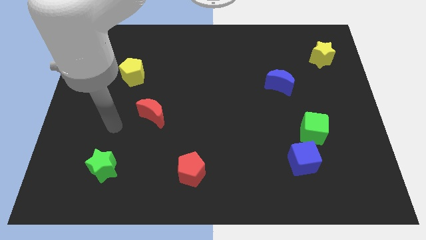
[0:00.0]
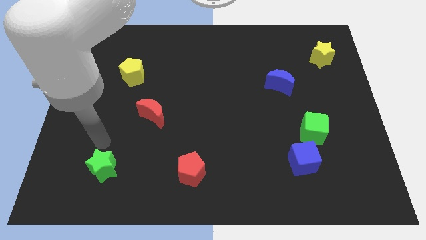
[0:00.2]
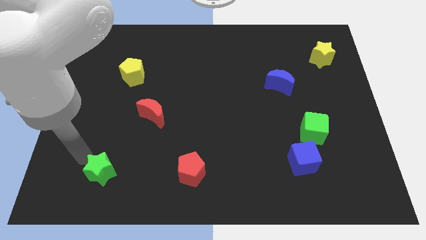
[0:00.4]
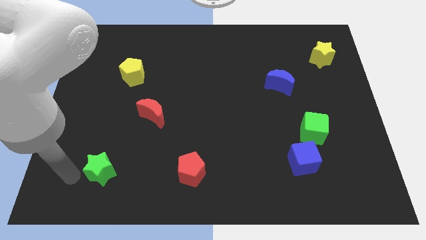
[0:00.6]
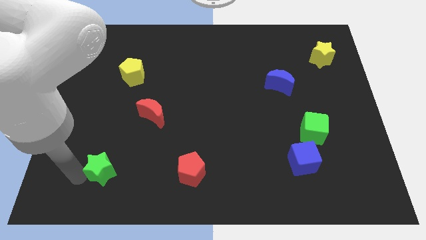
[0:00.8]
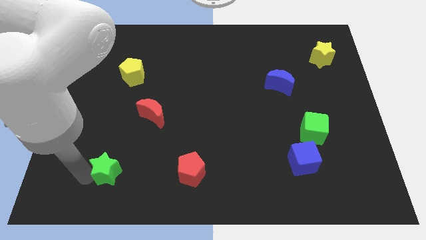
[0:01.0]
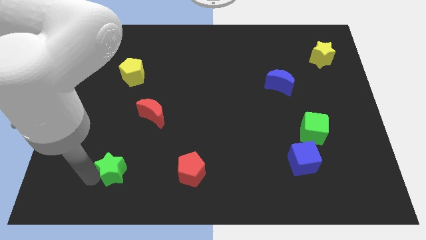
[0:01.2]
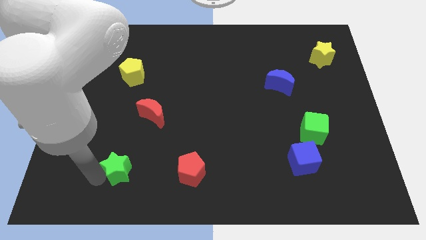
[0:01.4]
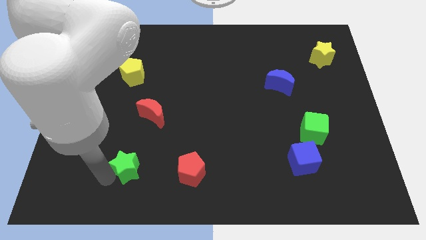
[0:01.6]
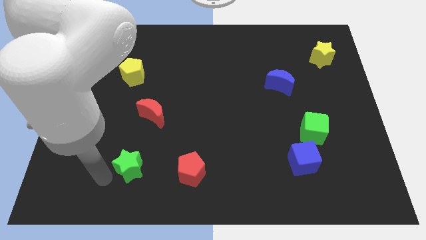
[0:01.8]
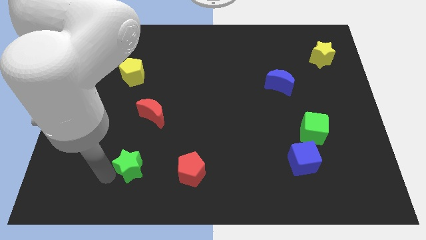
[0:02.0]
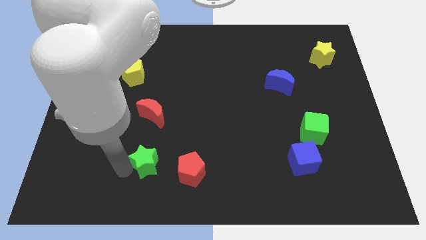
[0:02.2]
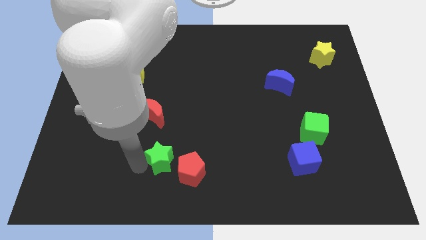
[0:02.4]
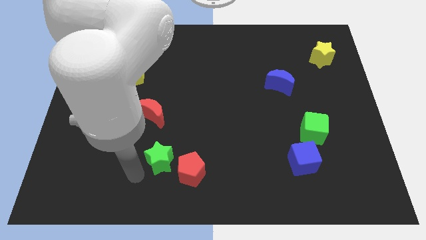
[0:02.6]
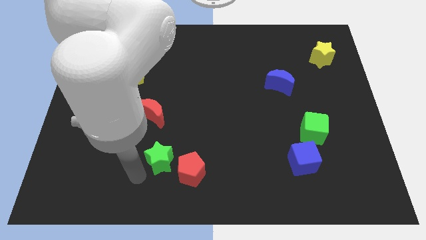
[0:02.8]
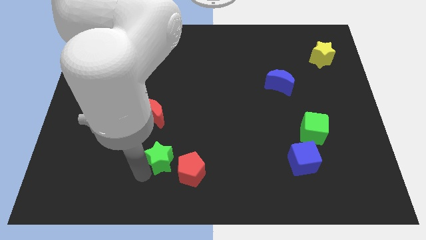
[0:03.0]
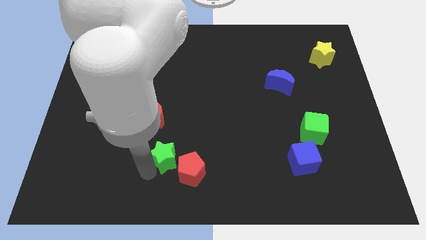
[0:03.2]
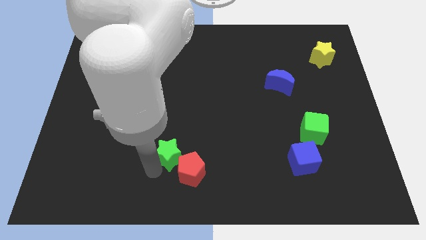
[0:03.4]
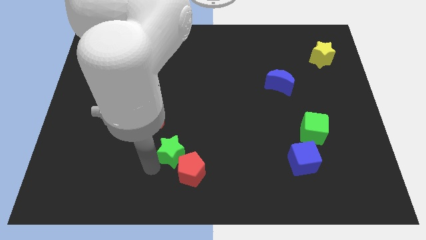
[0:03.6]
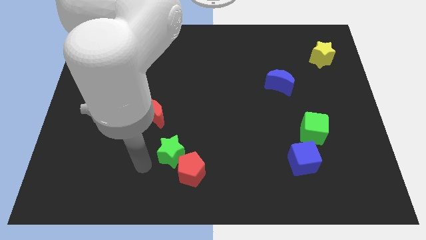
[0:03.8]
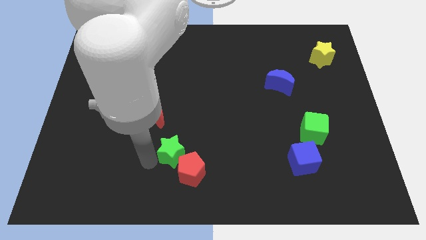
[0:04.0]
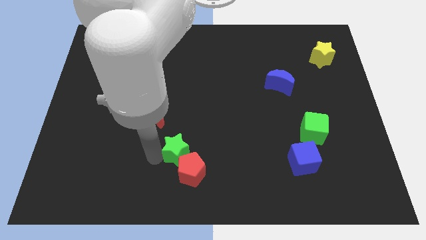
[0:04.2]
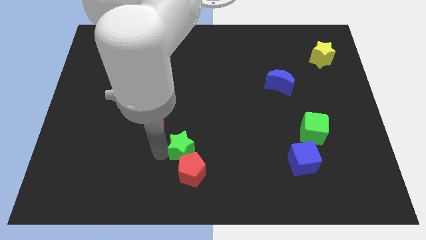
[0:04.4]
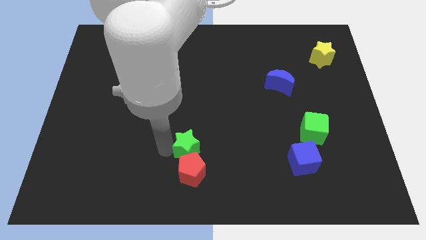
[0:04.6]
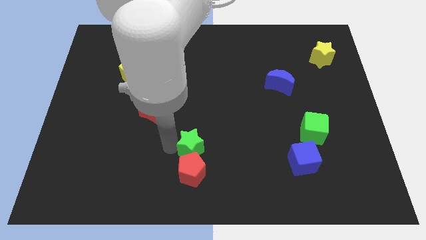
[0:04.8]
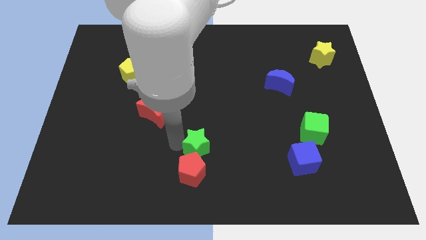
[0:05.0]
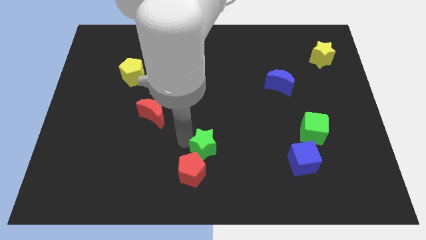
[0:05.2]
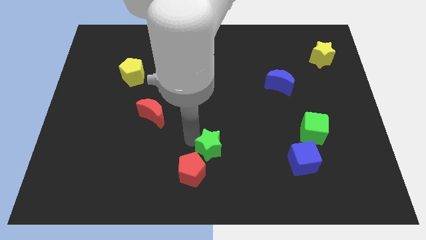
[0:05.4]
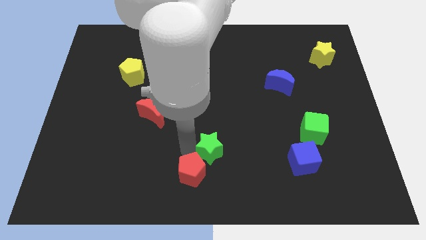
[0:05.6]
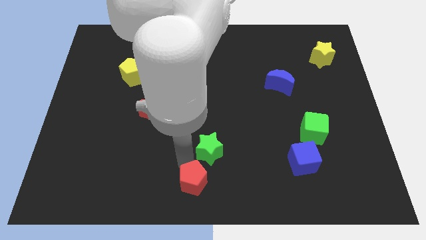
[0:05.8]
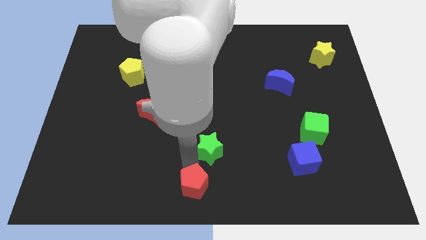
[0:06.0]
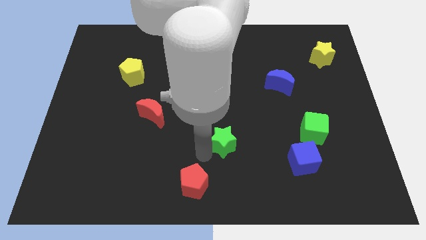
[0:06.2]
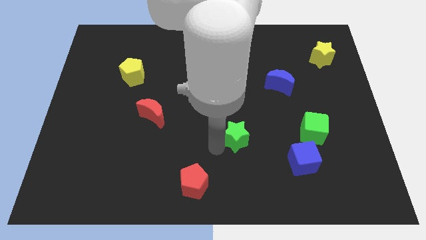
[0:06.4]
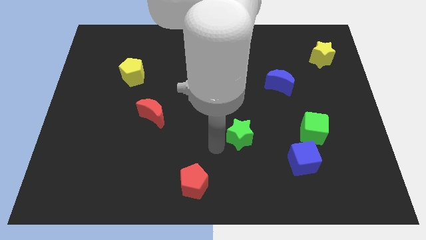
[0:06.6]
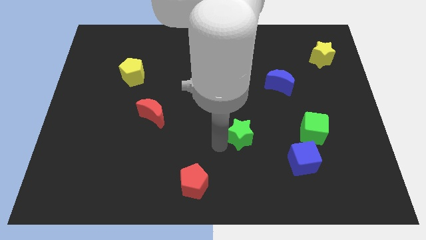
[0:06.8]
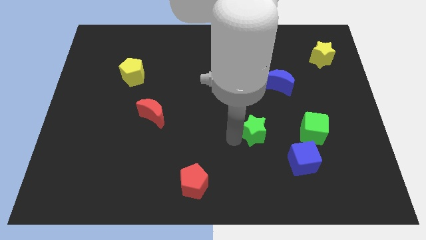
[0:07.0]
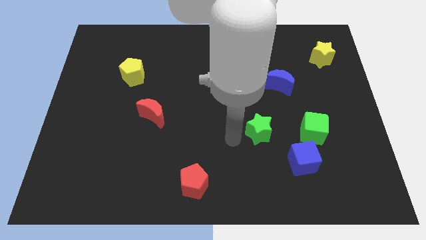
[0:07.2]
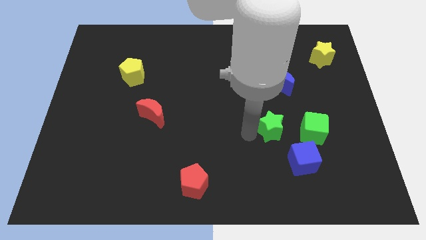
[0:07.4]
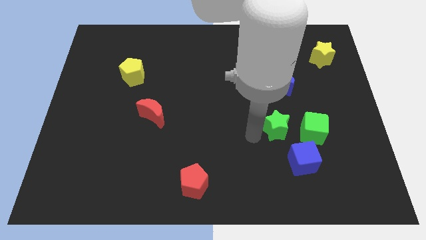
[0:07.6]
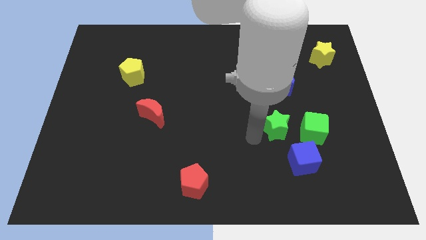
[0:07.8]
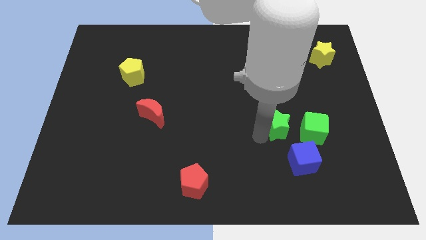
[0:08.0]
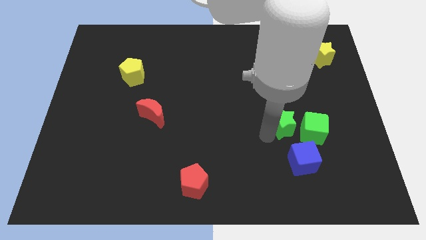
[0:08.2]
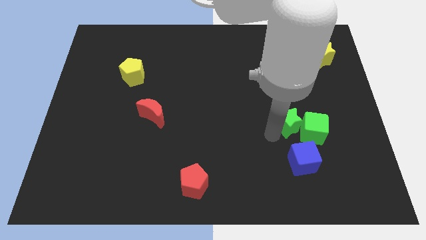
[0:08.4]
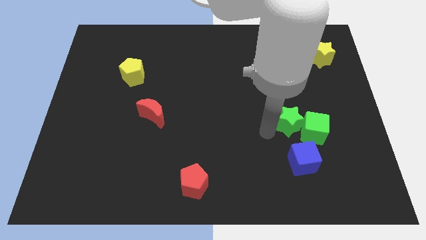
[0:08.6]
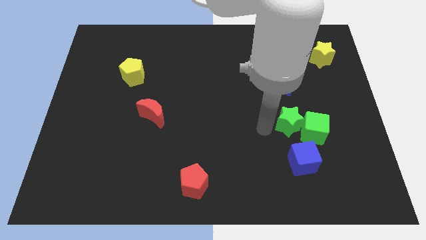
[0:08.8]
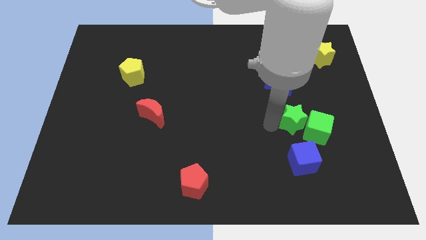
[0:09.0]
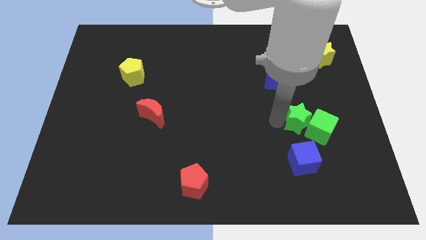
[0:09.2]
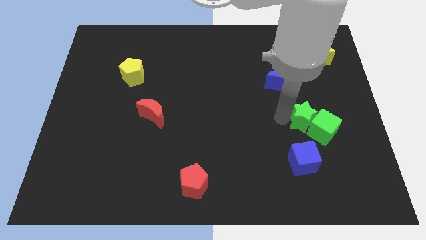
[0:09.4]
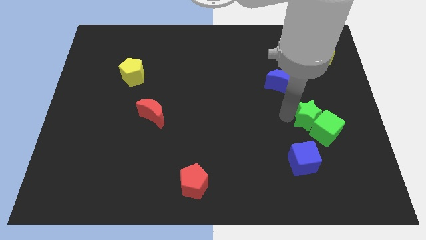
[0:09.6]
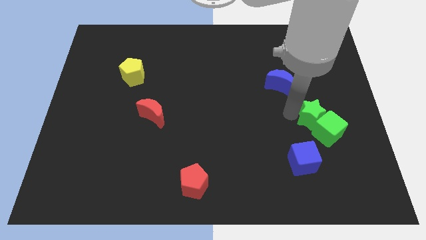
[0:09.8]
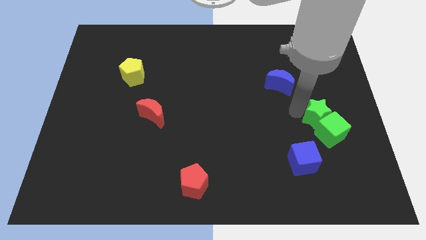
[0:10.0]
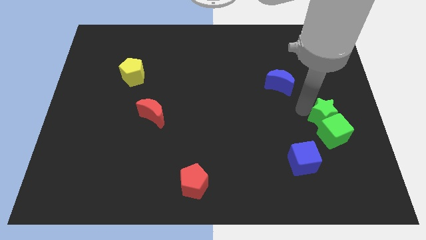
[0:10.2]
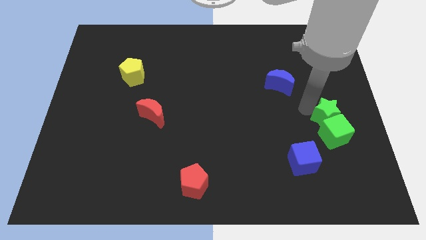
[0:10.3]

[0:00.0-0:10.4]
move the green star to the right side

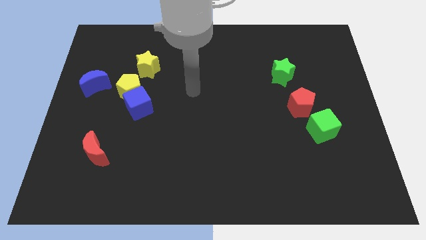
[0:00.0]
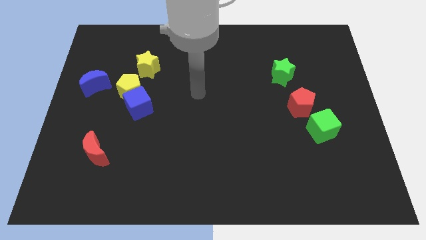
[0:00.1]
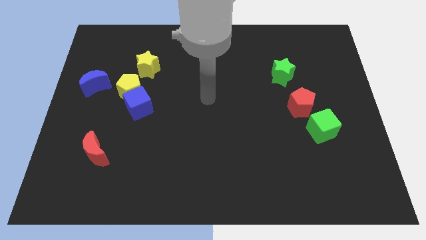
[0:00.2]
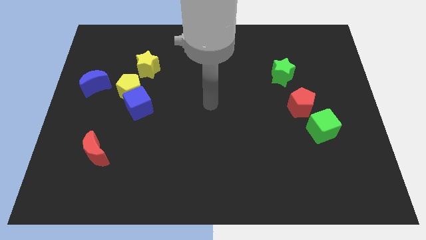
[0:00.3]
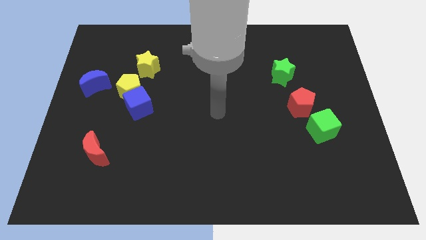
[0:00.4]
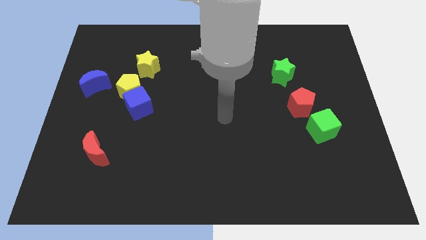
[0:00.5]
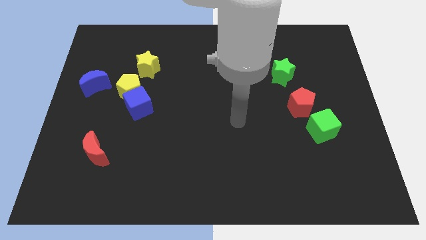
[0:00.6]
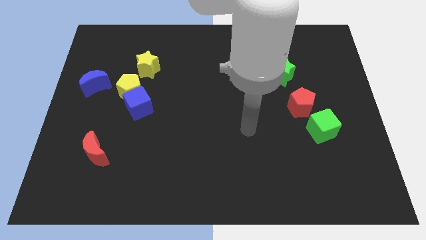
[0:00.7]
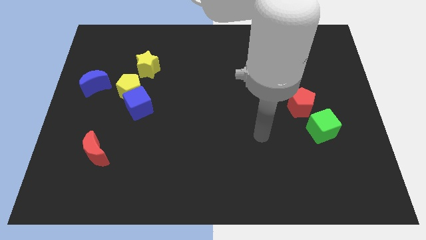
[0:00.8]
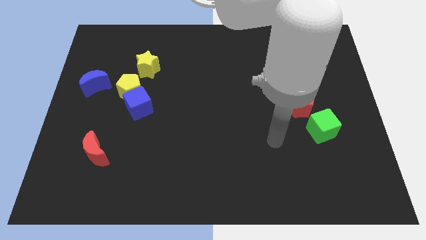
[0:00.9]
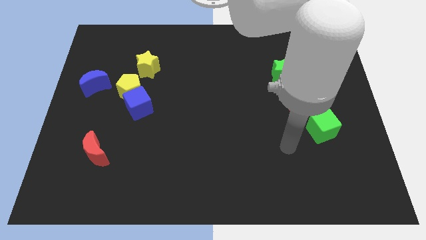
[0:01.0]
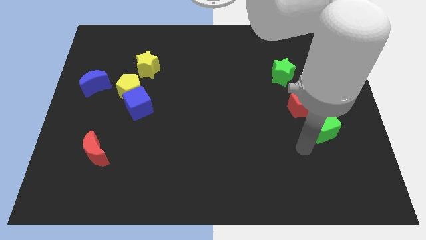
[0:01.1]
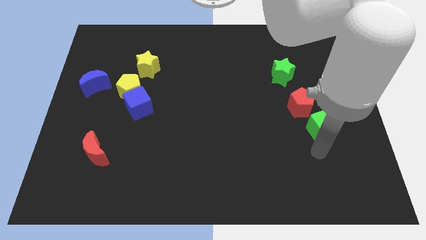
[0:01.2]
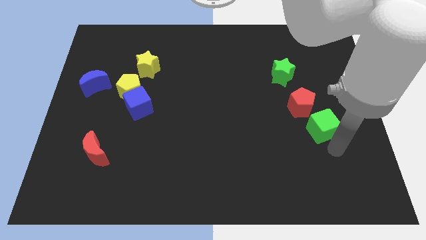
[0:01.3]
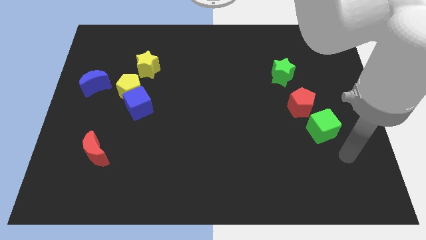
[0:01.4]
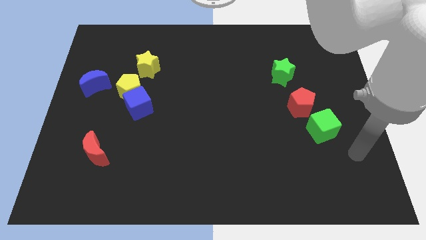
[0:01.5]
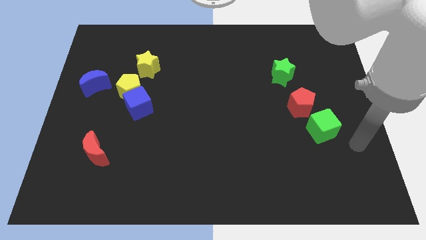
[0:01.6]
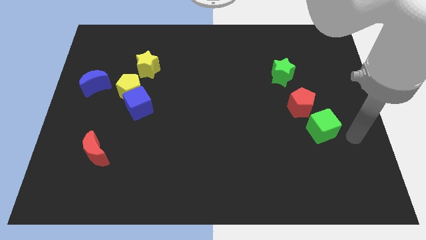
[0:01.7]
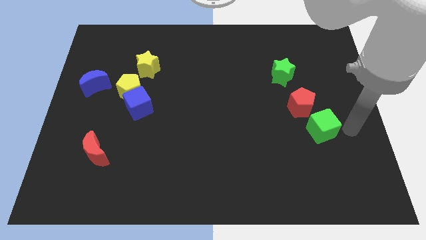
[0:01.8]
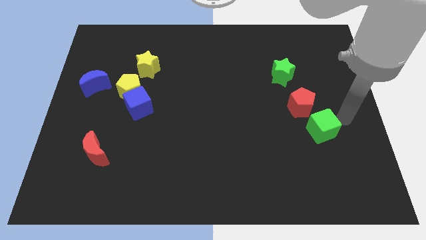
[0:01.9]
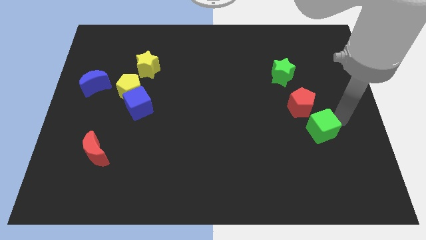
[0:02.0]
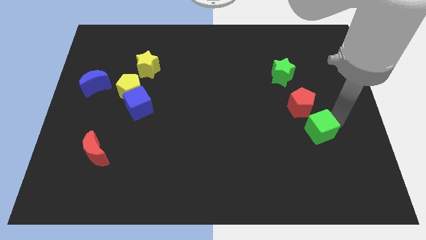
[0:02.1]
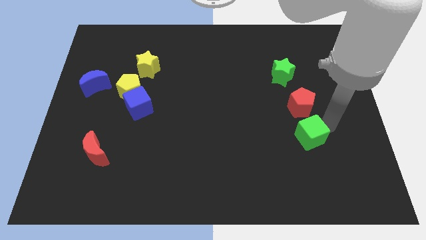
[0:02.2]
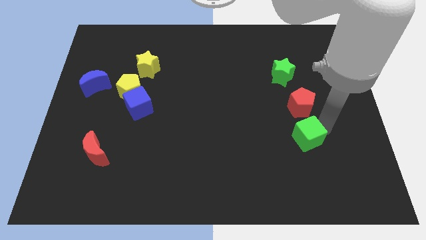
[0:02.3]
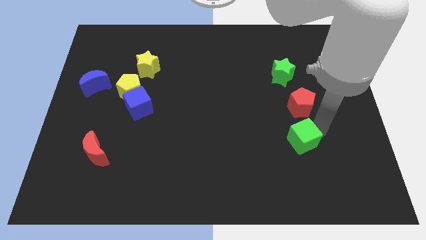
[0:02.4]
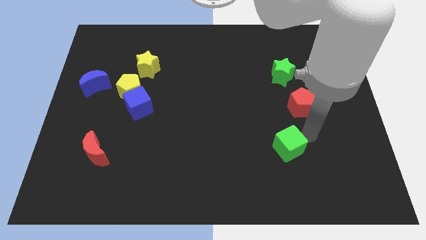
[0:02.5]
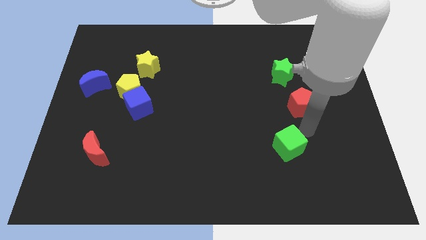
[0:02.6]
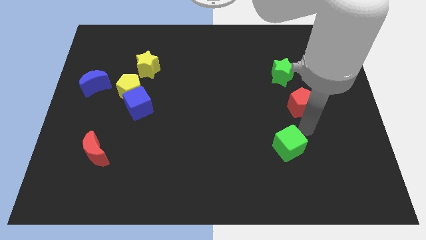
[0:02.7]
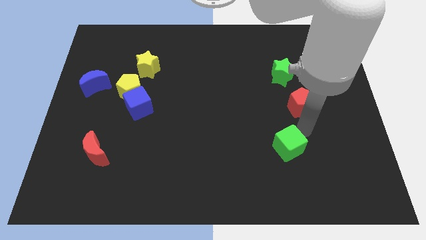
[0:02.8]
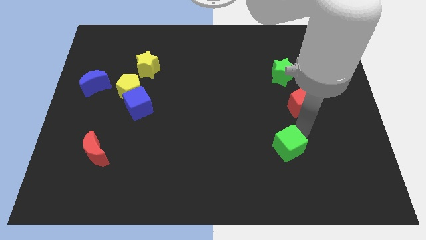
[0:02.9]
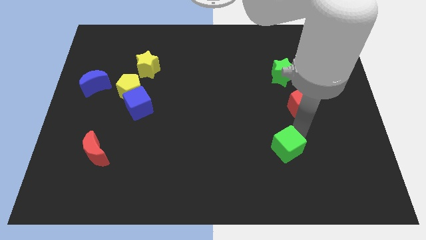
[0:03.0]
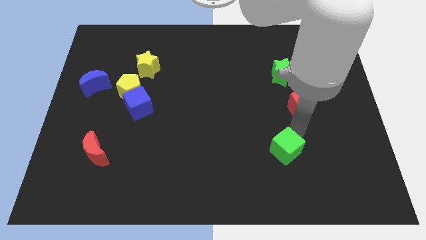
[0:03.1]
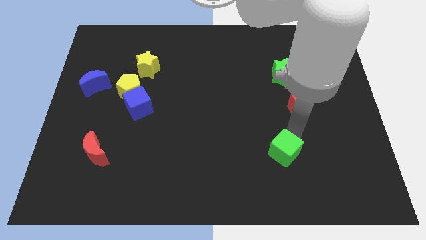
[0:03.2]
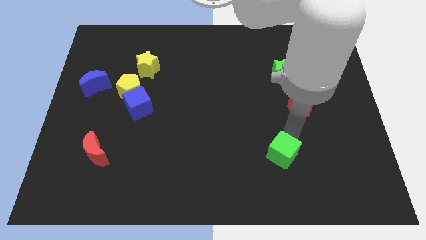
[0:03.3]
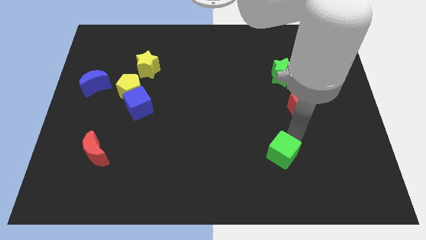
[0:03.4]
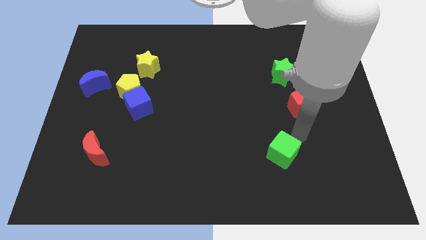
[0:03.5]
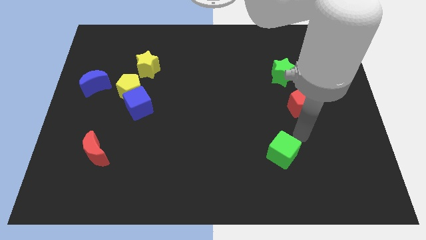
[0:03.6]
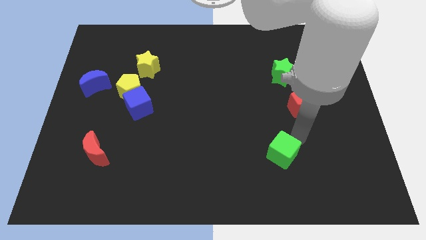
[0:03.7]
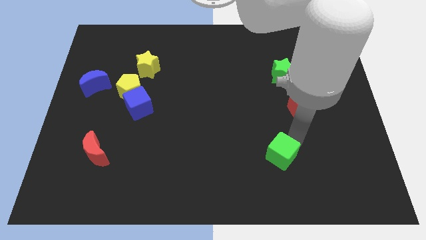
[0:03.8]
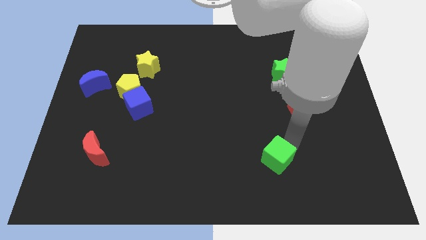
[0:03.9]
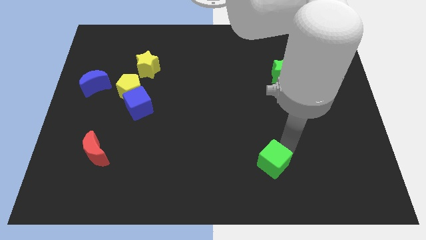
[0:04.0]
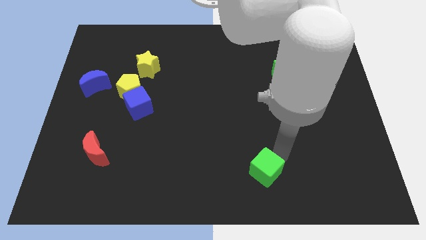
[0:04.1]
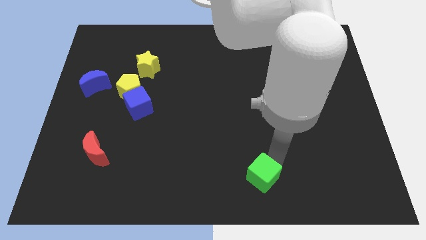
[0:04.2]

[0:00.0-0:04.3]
put the green cube to the bottom side
